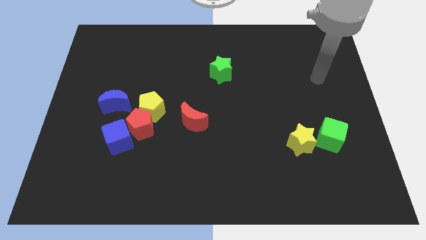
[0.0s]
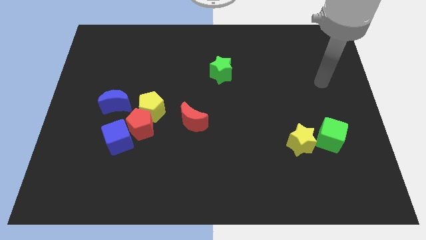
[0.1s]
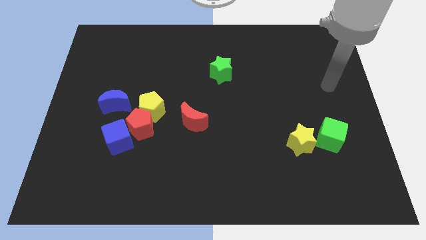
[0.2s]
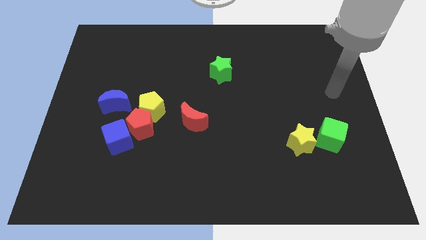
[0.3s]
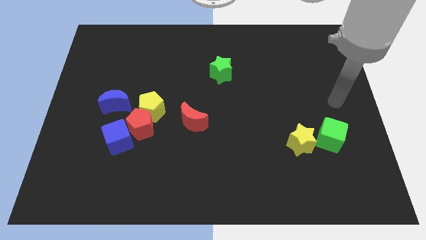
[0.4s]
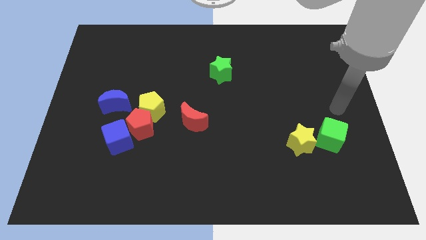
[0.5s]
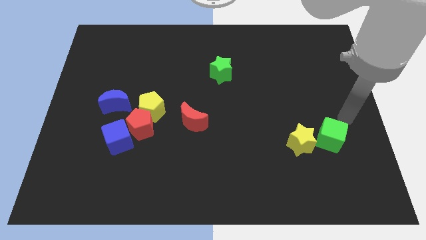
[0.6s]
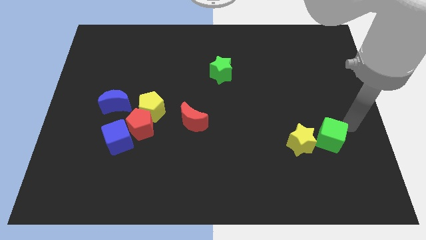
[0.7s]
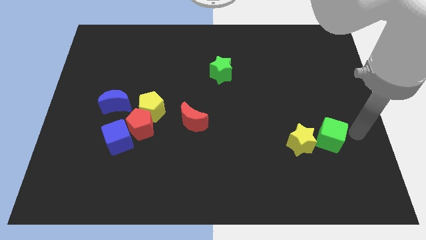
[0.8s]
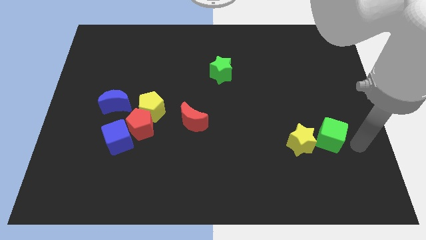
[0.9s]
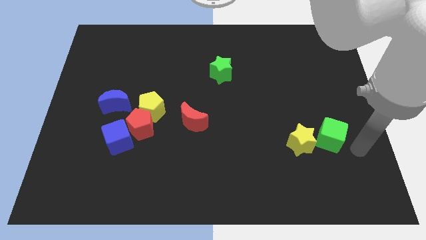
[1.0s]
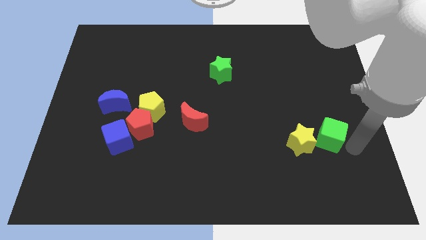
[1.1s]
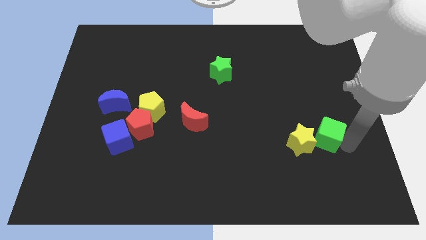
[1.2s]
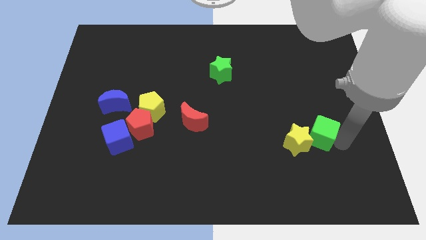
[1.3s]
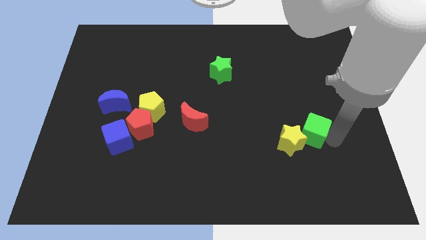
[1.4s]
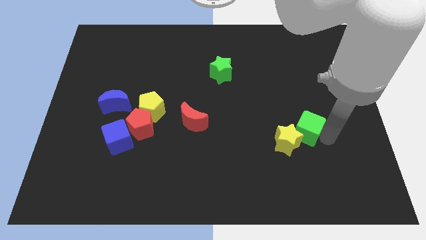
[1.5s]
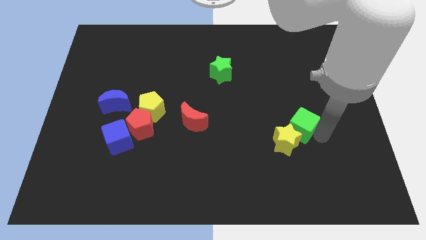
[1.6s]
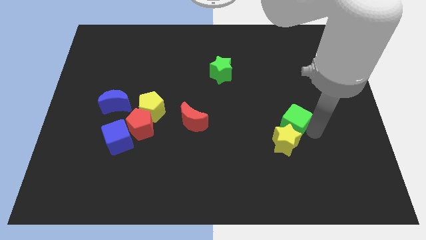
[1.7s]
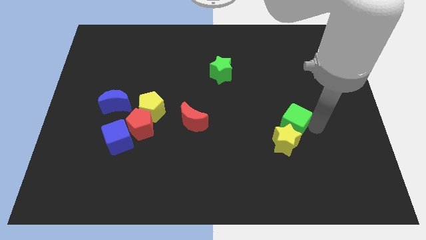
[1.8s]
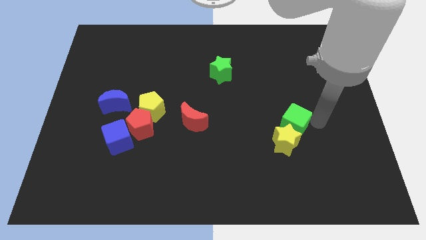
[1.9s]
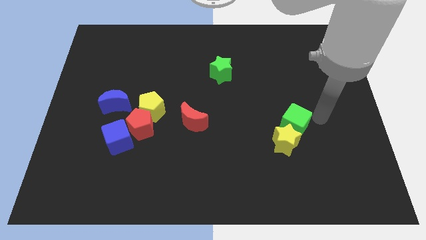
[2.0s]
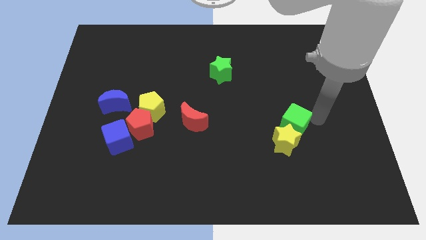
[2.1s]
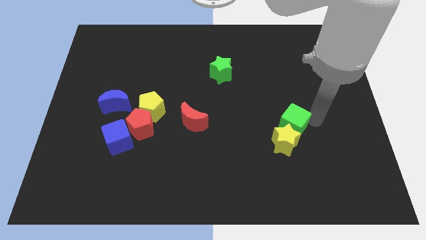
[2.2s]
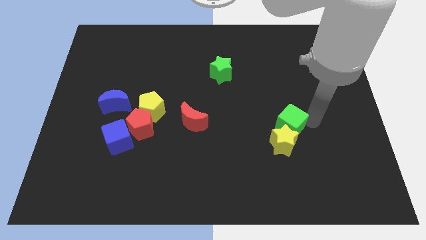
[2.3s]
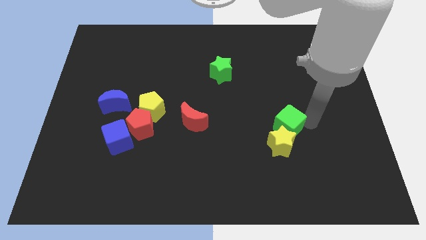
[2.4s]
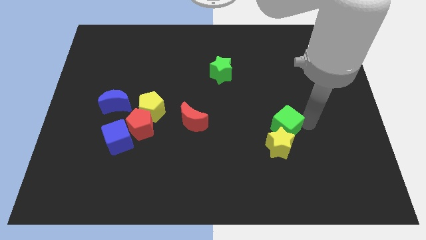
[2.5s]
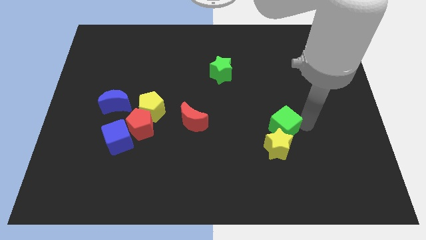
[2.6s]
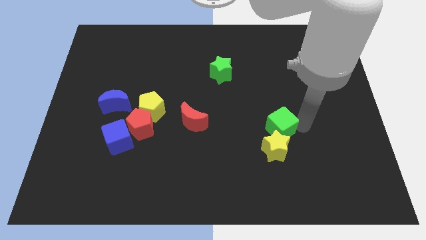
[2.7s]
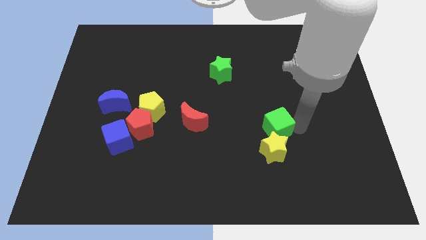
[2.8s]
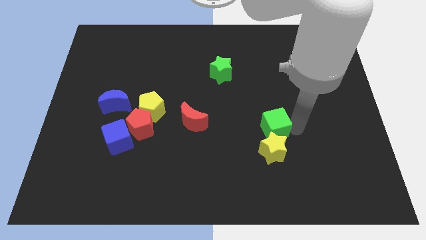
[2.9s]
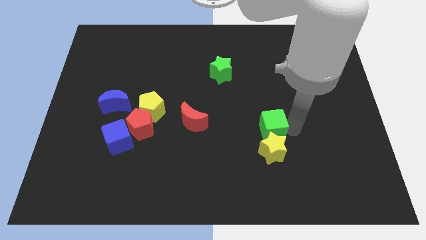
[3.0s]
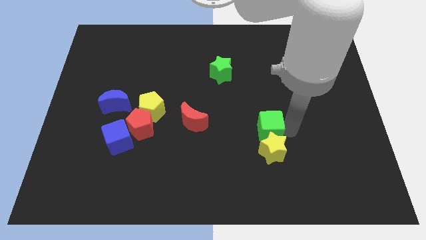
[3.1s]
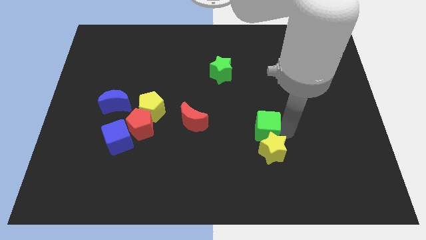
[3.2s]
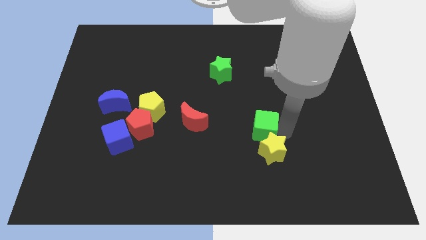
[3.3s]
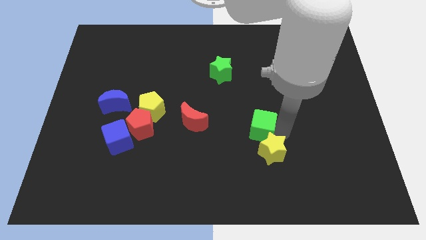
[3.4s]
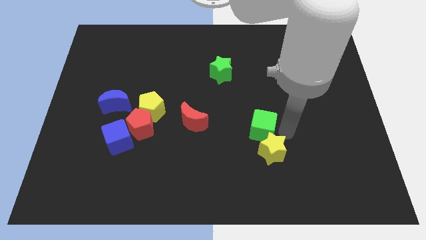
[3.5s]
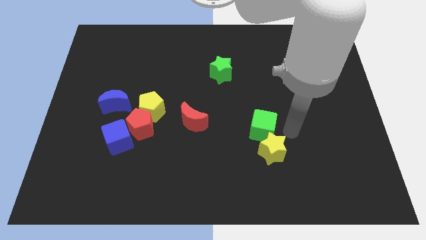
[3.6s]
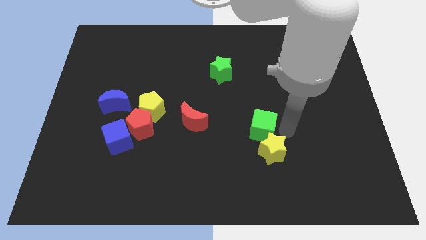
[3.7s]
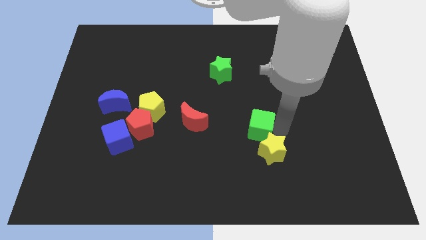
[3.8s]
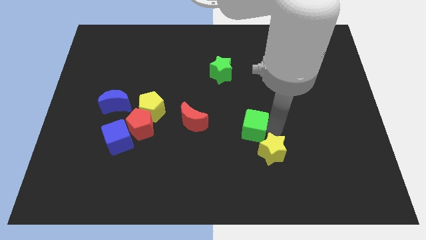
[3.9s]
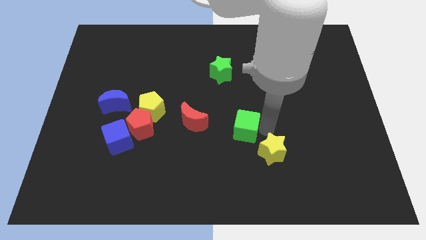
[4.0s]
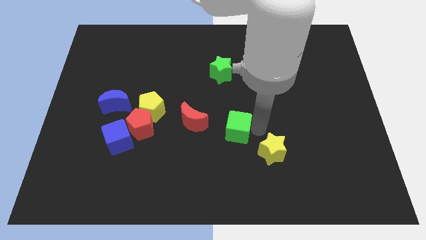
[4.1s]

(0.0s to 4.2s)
move the green cube left

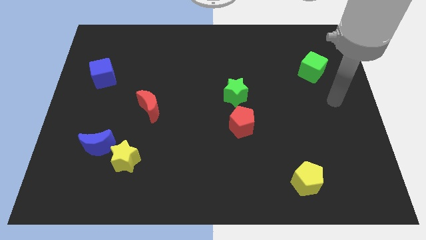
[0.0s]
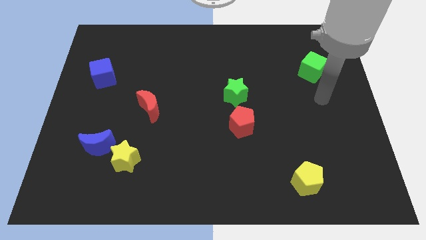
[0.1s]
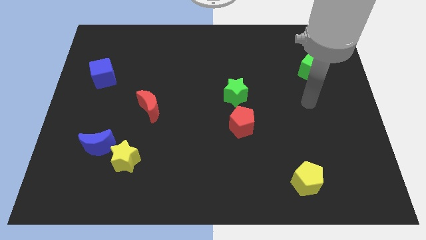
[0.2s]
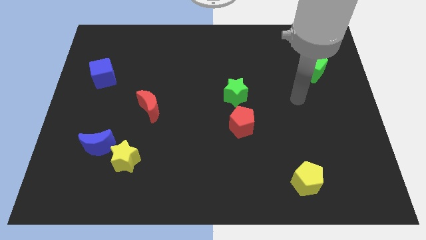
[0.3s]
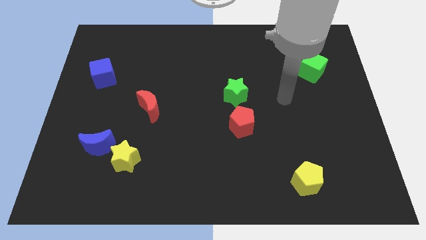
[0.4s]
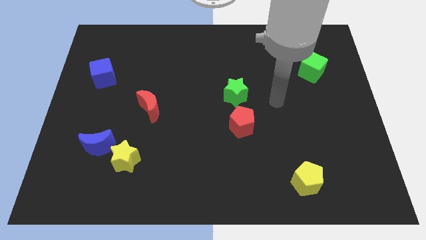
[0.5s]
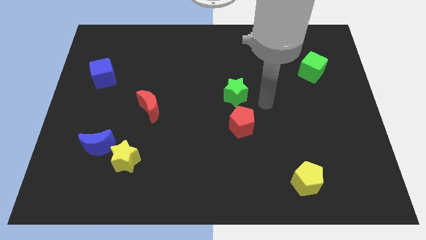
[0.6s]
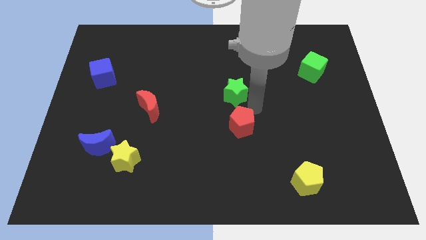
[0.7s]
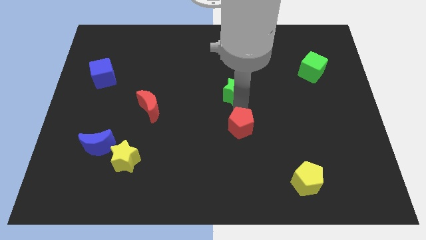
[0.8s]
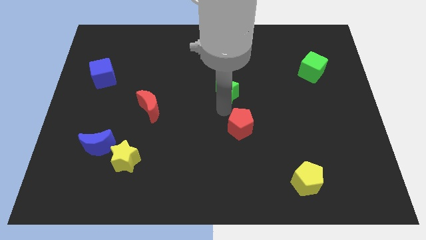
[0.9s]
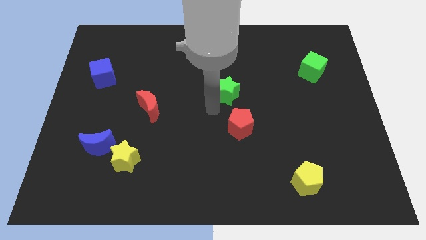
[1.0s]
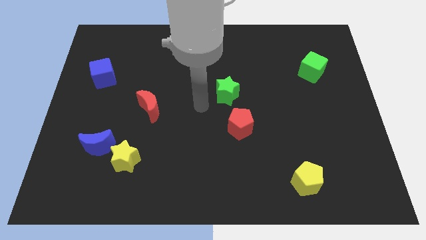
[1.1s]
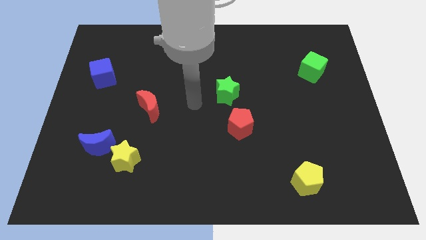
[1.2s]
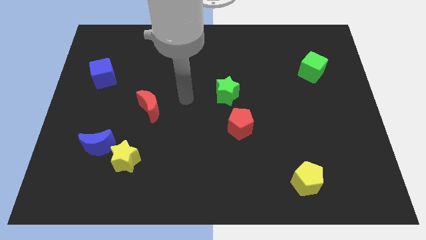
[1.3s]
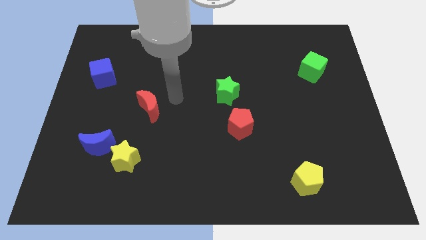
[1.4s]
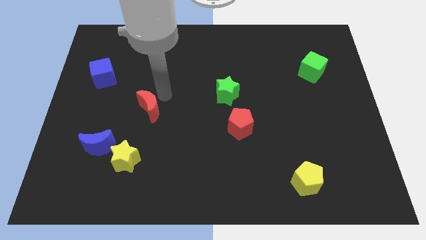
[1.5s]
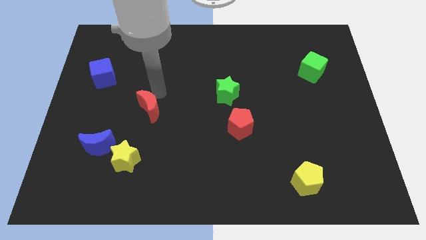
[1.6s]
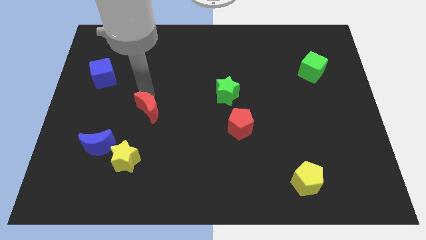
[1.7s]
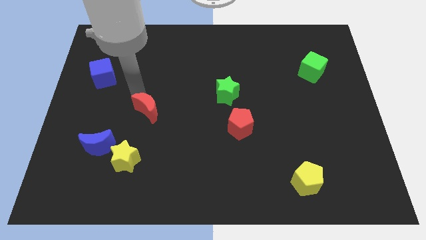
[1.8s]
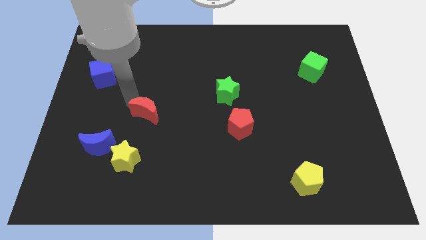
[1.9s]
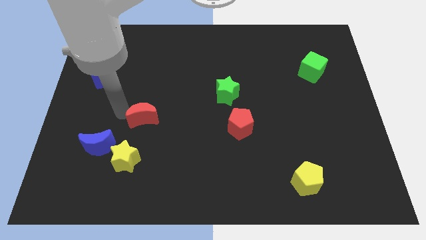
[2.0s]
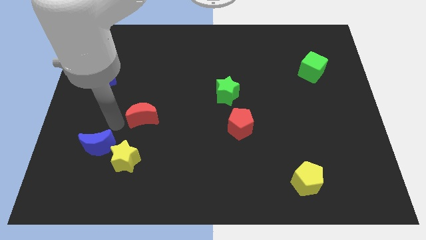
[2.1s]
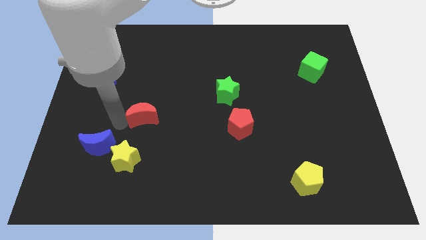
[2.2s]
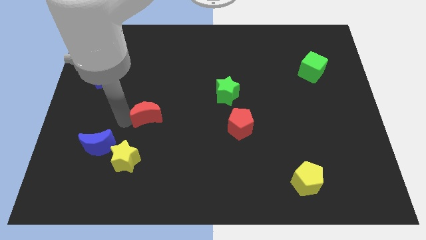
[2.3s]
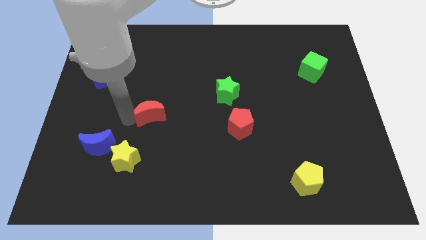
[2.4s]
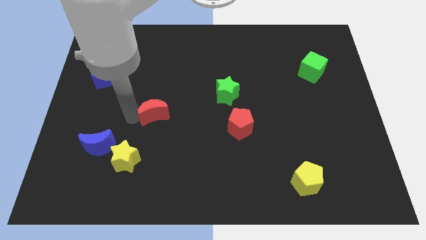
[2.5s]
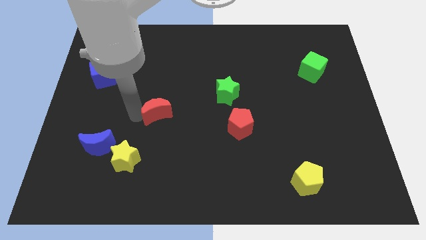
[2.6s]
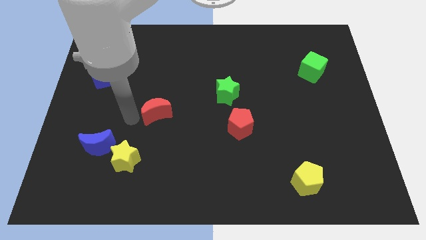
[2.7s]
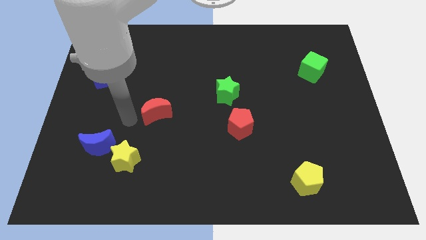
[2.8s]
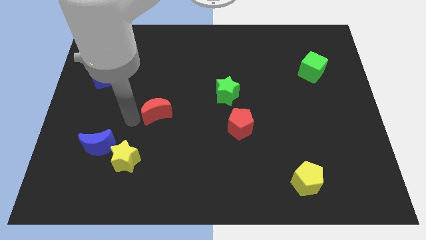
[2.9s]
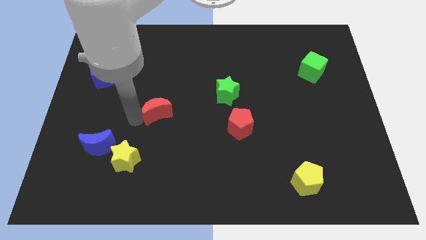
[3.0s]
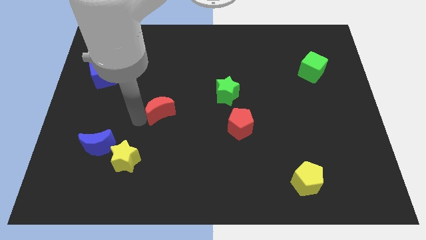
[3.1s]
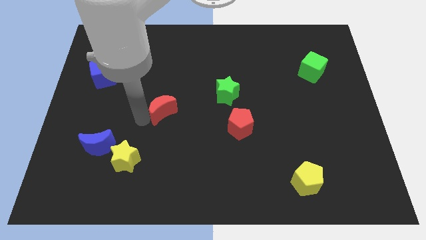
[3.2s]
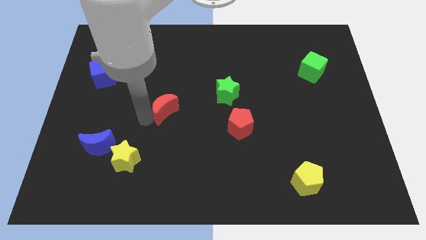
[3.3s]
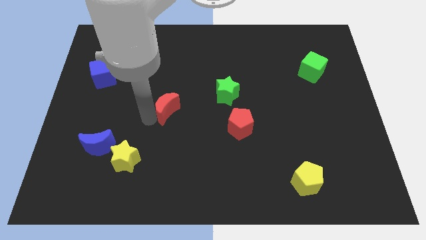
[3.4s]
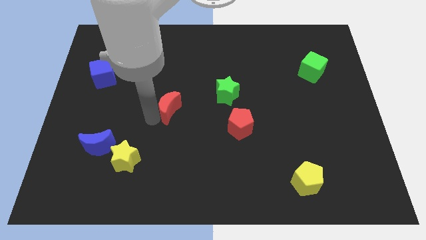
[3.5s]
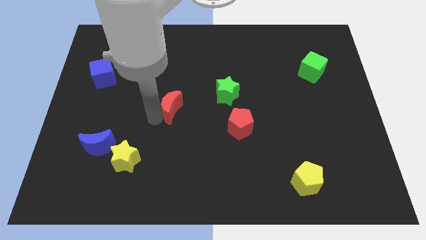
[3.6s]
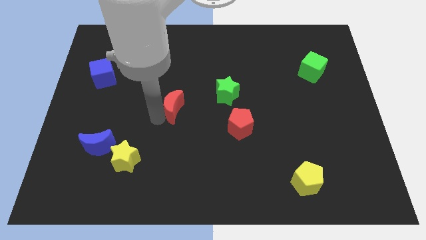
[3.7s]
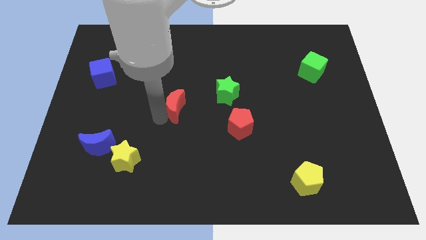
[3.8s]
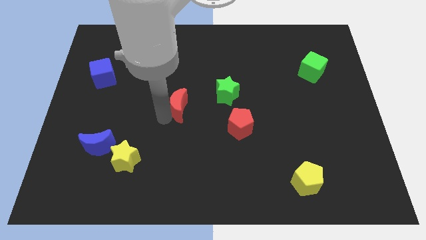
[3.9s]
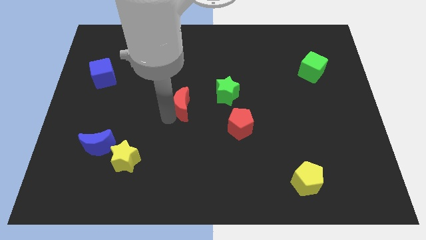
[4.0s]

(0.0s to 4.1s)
slightly move the red moon right
